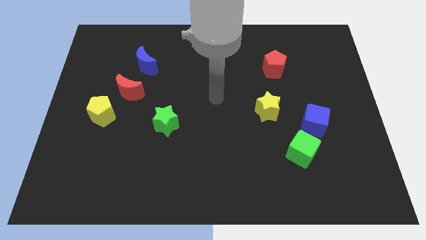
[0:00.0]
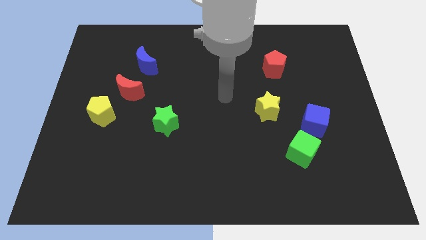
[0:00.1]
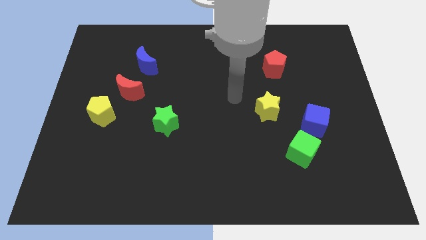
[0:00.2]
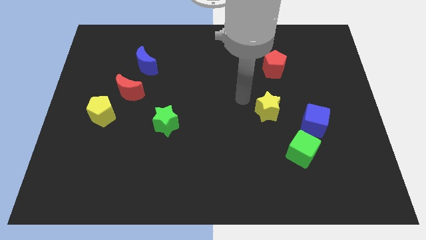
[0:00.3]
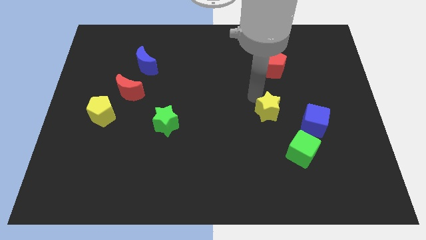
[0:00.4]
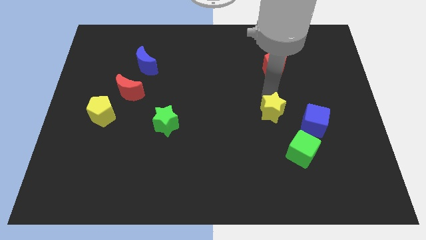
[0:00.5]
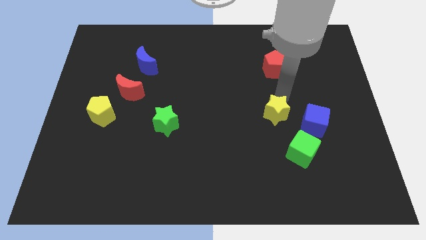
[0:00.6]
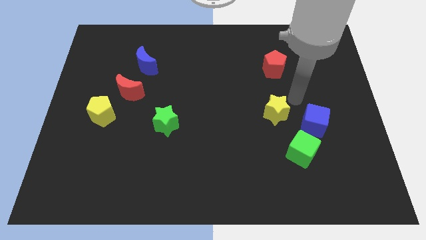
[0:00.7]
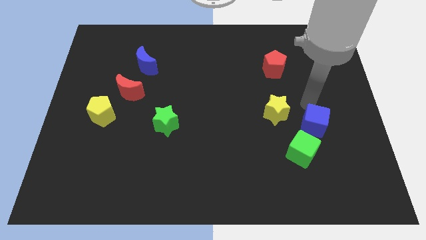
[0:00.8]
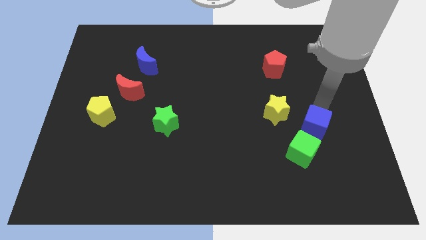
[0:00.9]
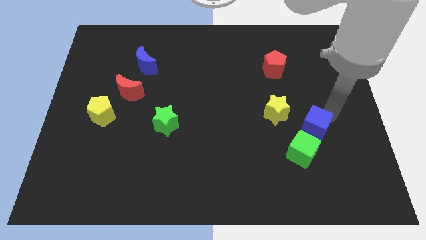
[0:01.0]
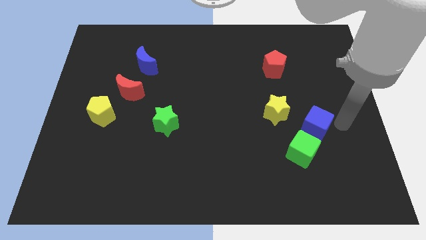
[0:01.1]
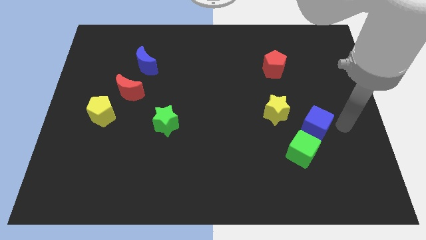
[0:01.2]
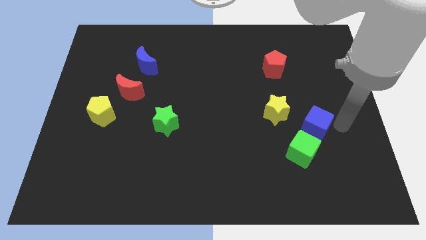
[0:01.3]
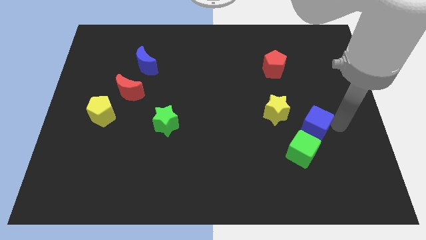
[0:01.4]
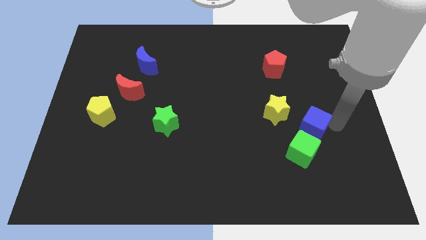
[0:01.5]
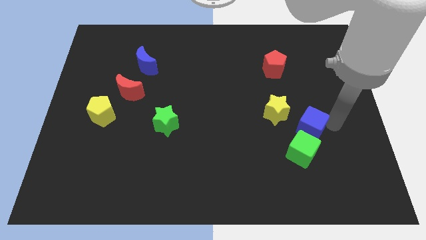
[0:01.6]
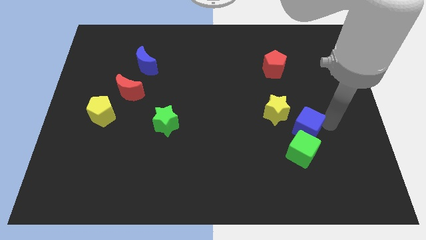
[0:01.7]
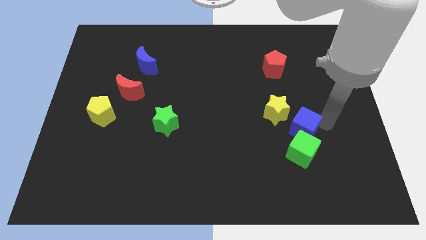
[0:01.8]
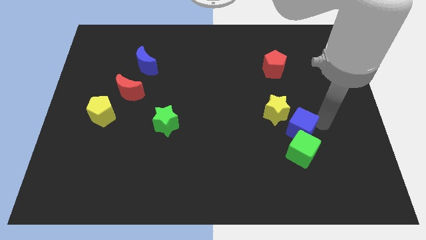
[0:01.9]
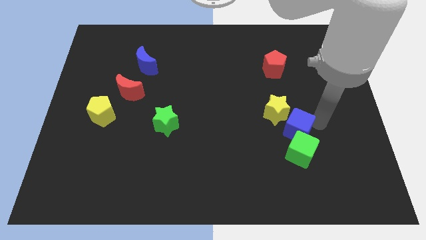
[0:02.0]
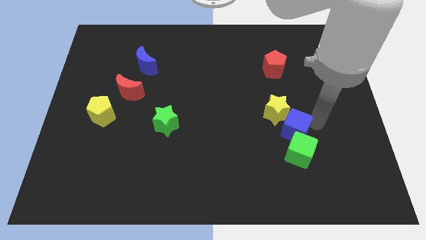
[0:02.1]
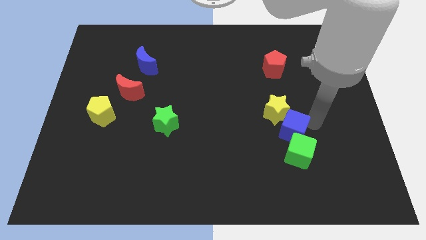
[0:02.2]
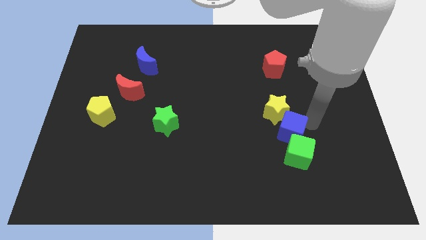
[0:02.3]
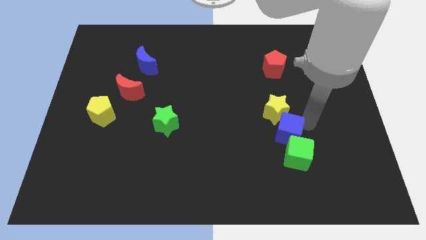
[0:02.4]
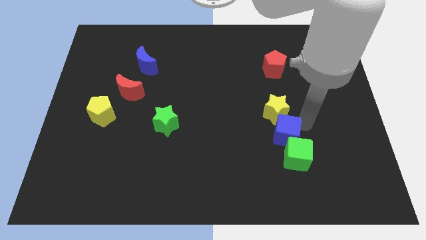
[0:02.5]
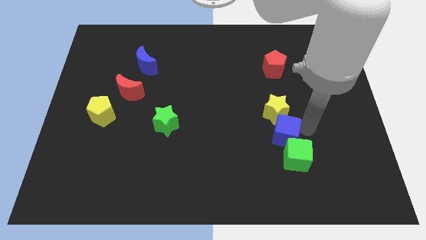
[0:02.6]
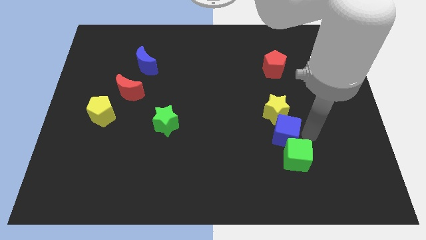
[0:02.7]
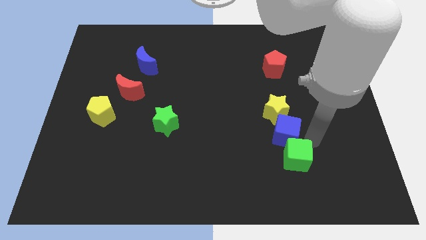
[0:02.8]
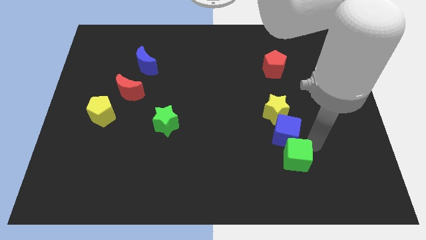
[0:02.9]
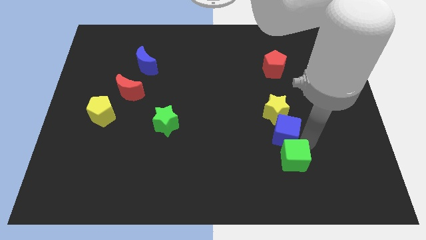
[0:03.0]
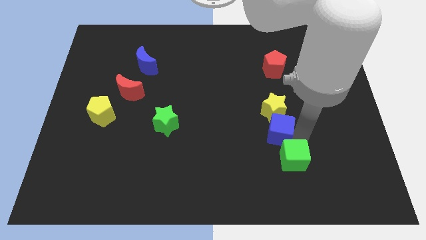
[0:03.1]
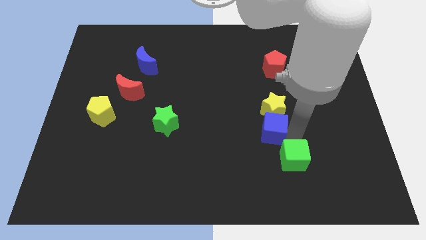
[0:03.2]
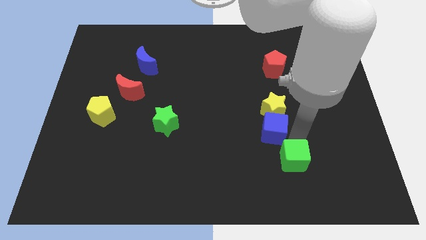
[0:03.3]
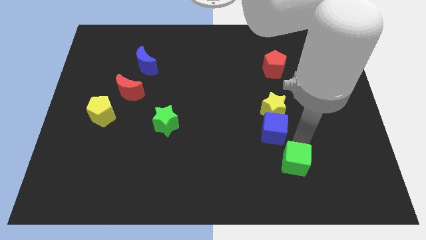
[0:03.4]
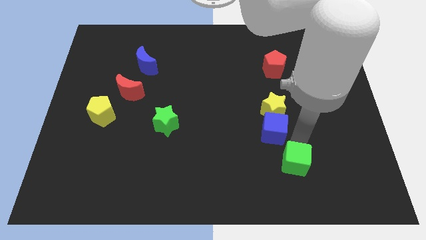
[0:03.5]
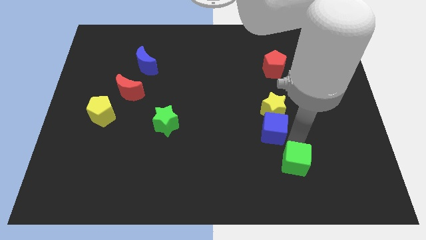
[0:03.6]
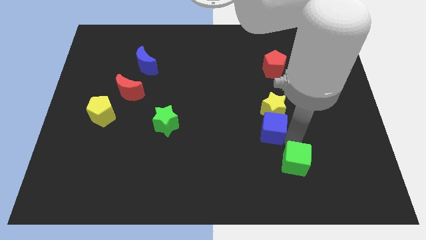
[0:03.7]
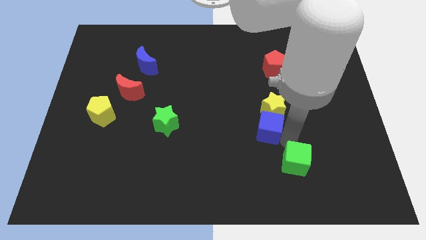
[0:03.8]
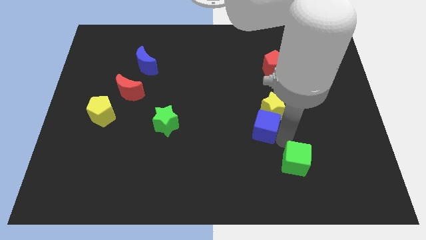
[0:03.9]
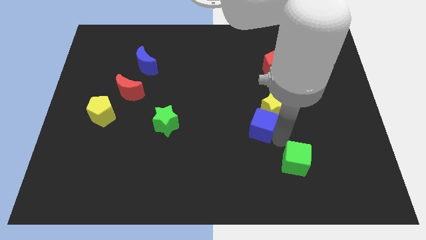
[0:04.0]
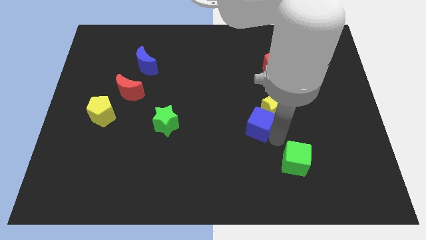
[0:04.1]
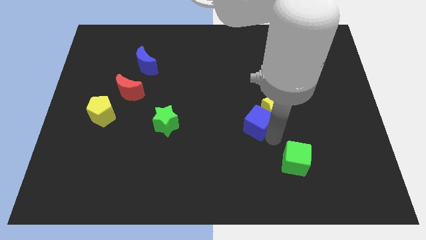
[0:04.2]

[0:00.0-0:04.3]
slide the blue cube to the middle

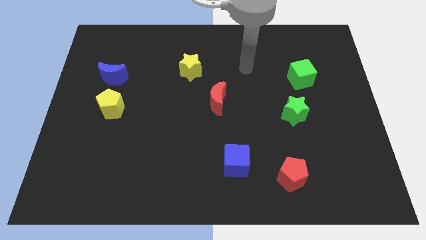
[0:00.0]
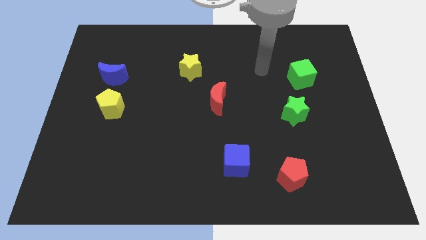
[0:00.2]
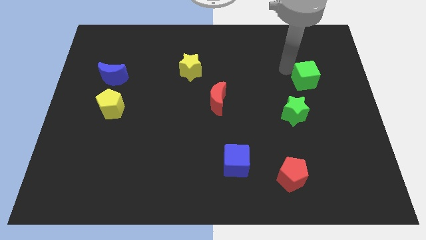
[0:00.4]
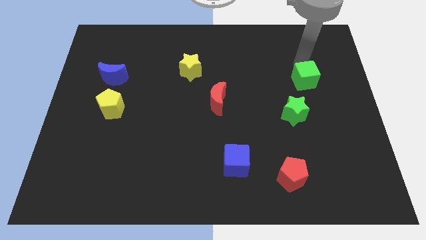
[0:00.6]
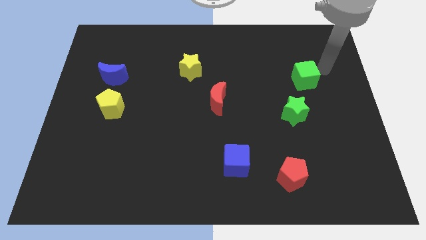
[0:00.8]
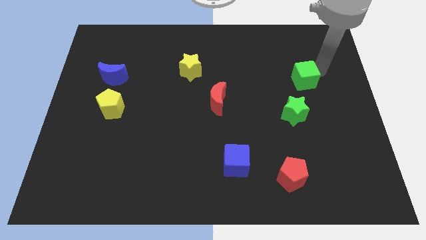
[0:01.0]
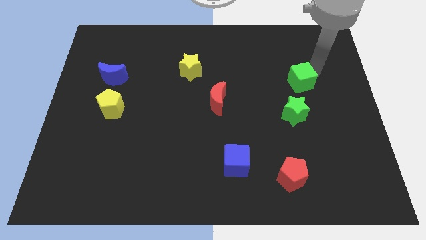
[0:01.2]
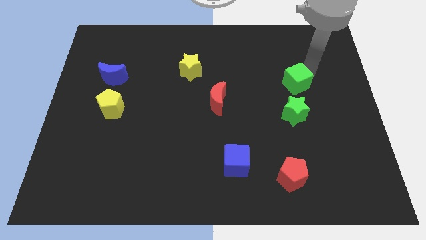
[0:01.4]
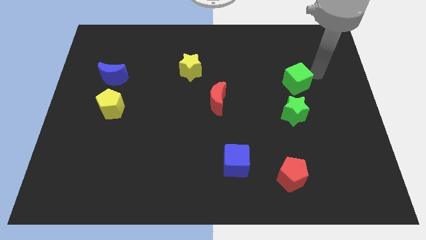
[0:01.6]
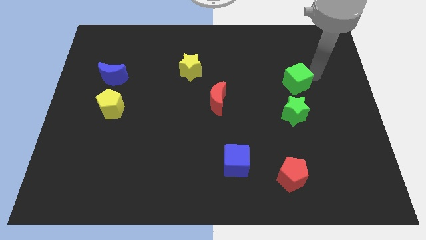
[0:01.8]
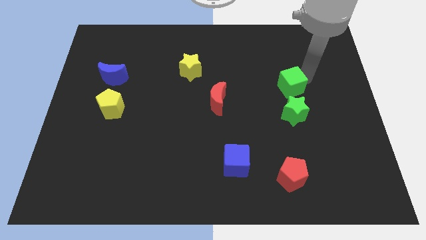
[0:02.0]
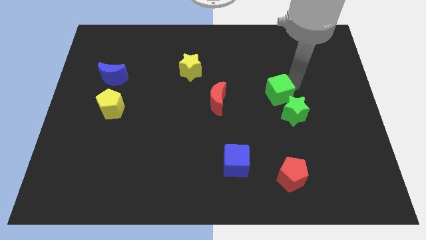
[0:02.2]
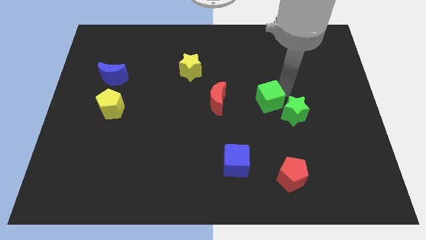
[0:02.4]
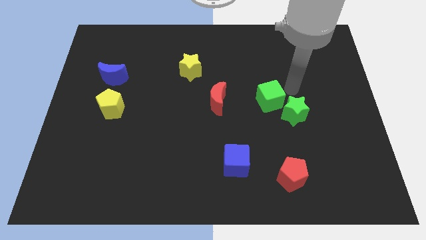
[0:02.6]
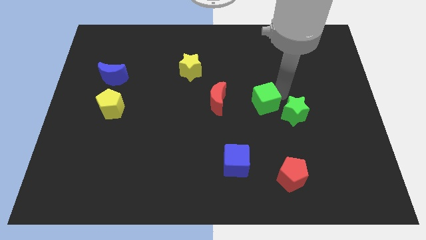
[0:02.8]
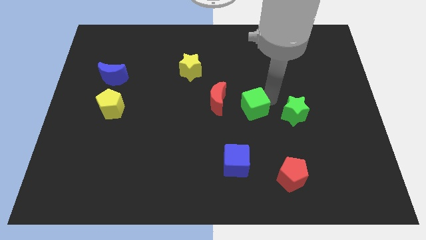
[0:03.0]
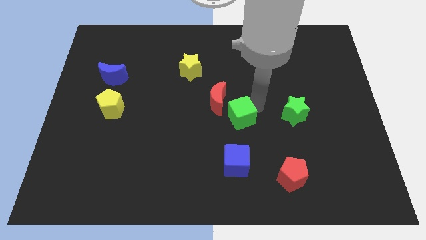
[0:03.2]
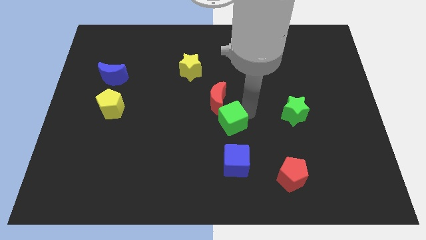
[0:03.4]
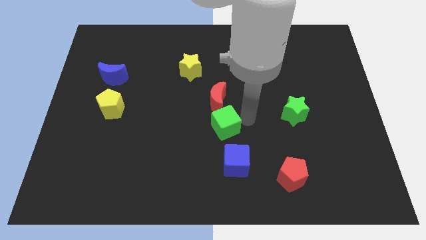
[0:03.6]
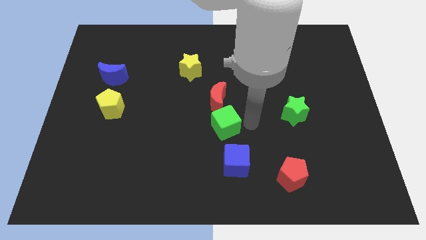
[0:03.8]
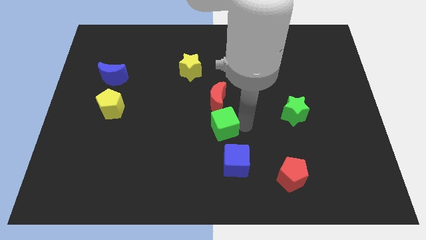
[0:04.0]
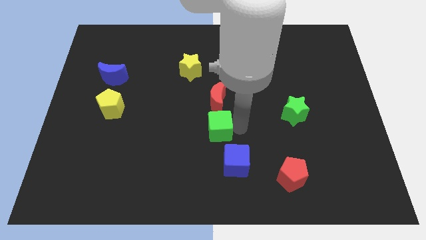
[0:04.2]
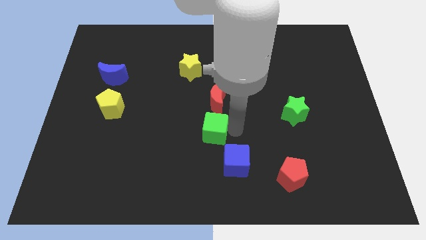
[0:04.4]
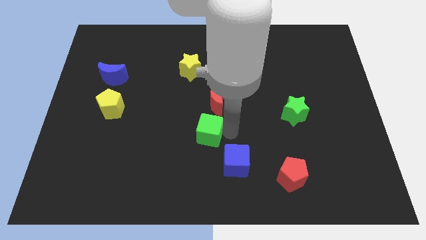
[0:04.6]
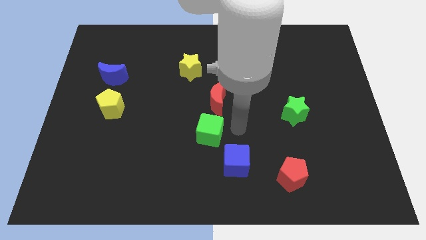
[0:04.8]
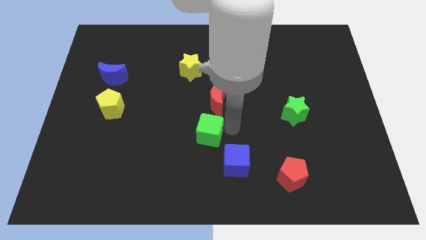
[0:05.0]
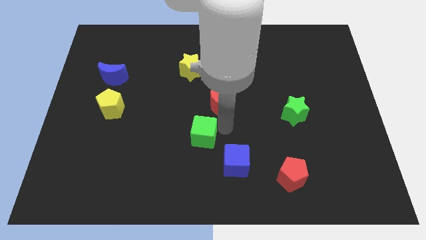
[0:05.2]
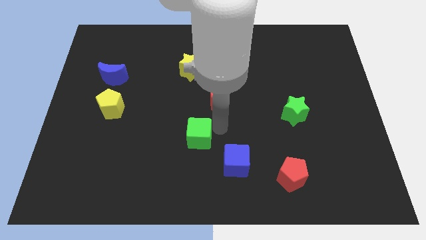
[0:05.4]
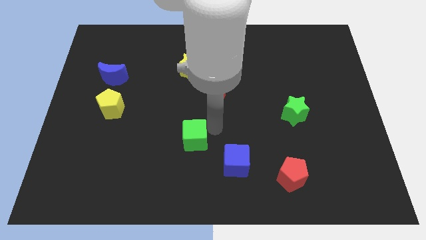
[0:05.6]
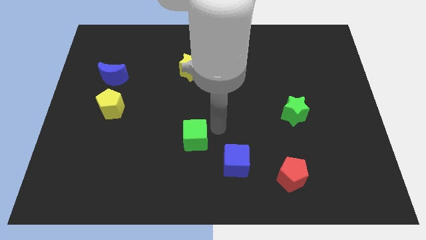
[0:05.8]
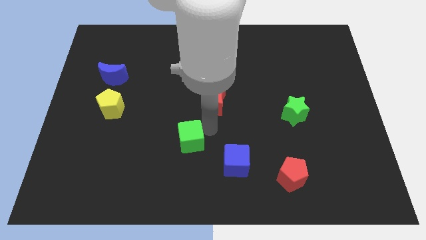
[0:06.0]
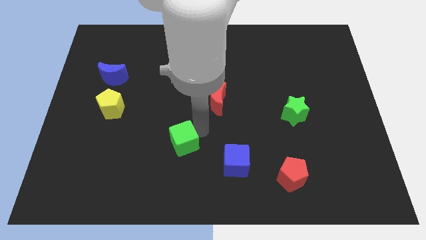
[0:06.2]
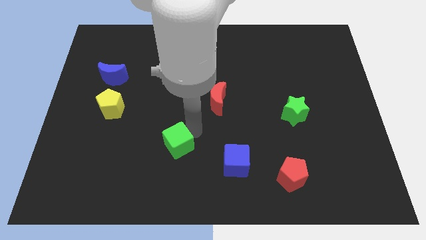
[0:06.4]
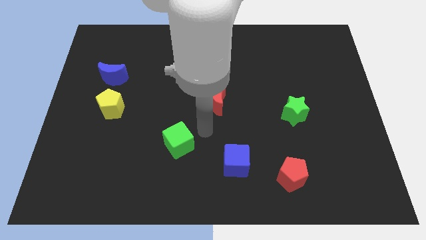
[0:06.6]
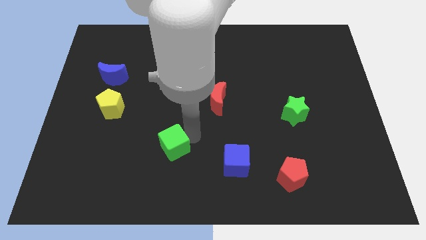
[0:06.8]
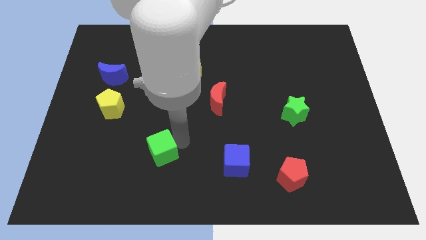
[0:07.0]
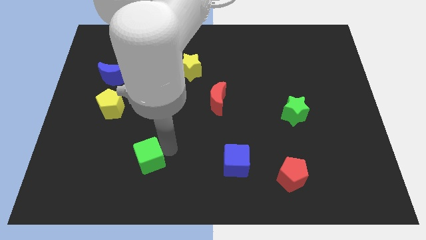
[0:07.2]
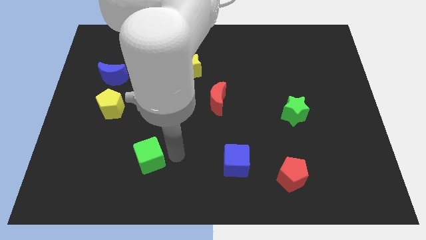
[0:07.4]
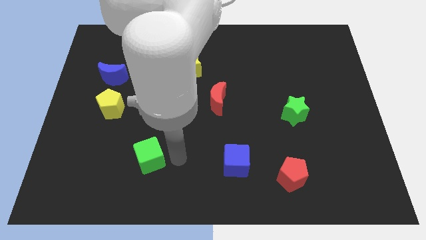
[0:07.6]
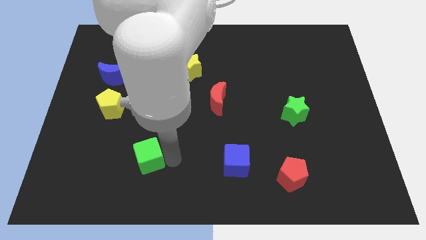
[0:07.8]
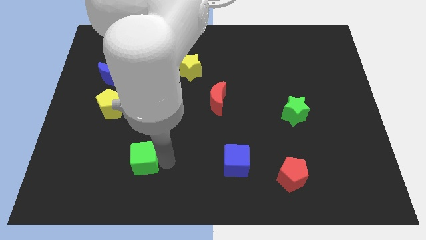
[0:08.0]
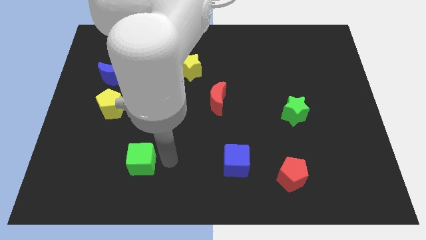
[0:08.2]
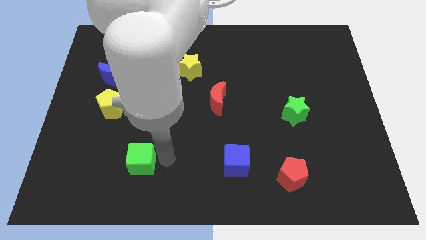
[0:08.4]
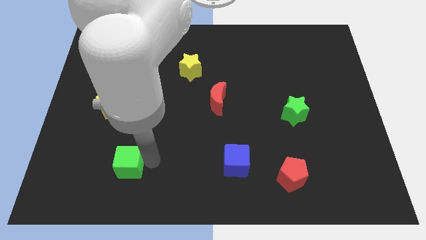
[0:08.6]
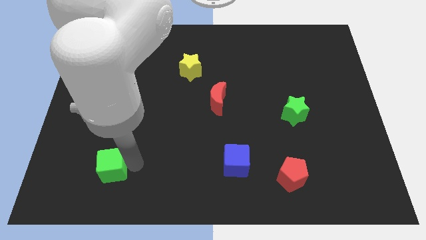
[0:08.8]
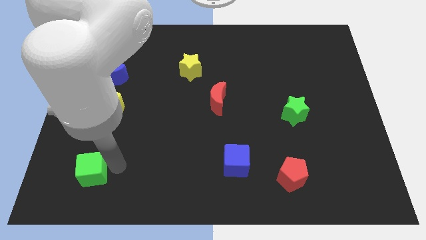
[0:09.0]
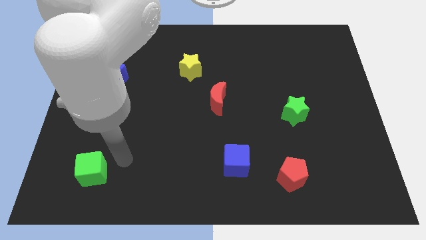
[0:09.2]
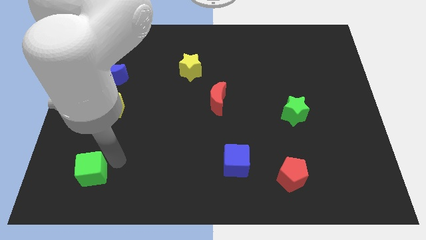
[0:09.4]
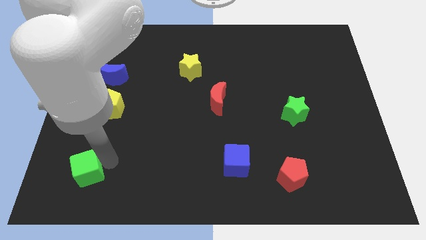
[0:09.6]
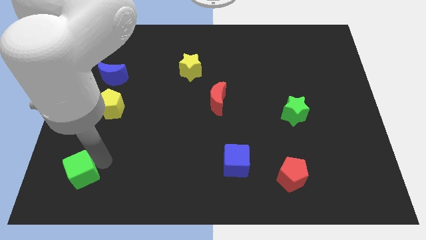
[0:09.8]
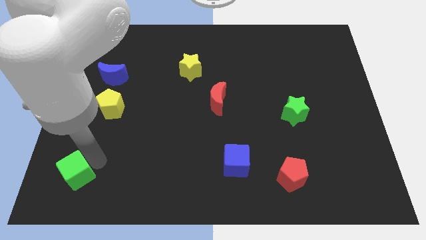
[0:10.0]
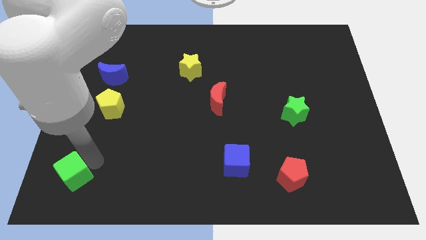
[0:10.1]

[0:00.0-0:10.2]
push the green cube to the lower left corner
